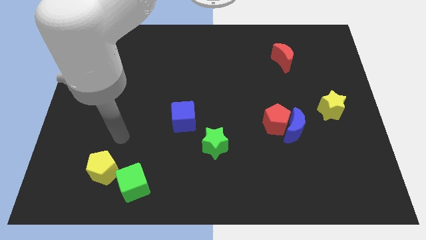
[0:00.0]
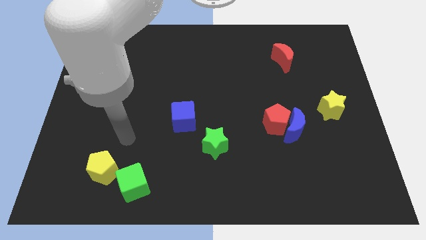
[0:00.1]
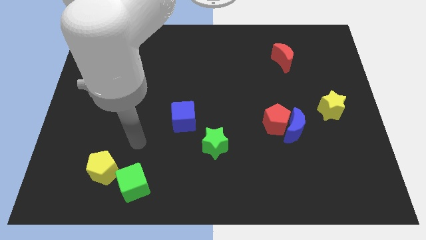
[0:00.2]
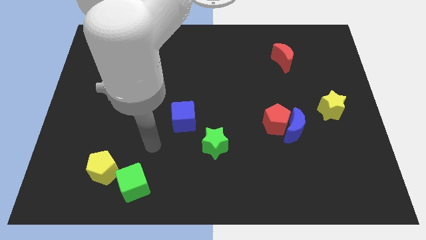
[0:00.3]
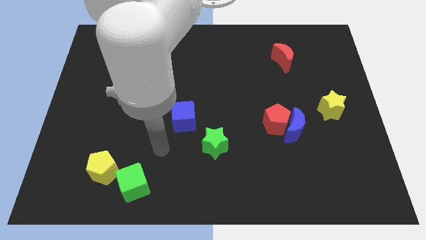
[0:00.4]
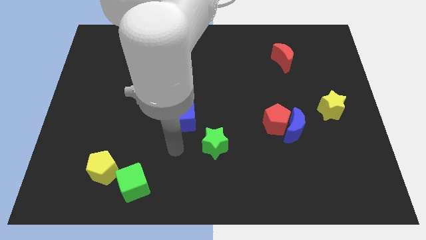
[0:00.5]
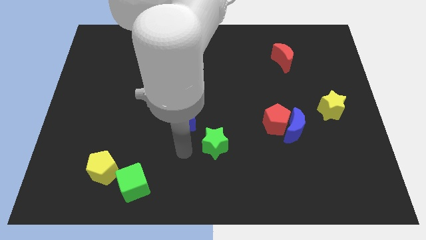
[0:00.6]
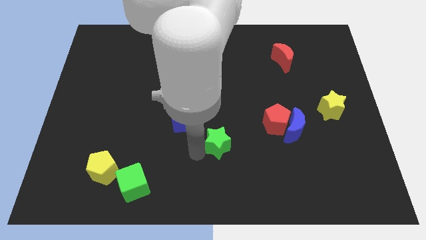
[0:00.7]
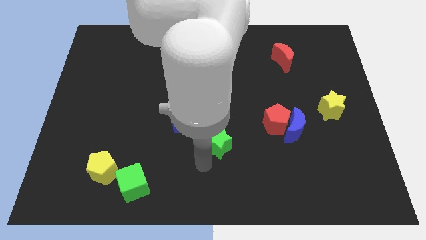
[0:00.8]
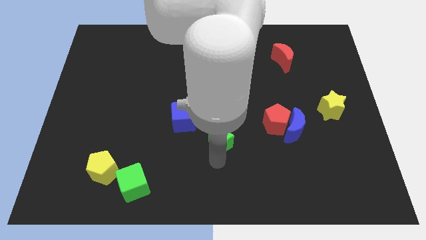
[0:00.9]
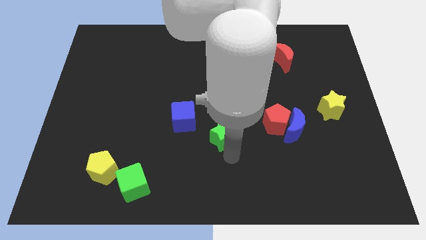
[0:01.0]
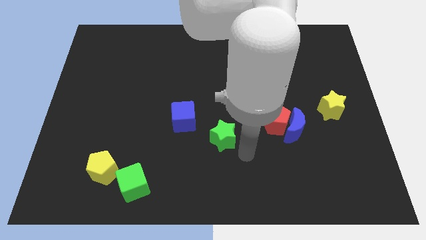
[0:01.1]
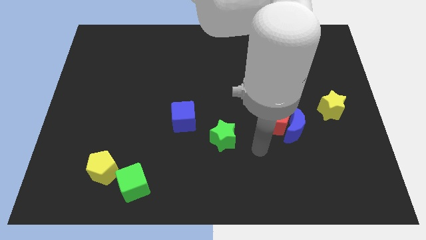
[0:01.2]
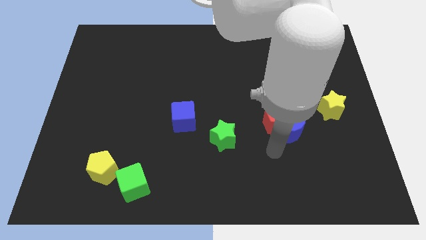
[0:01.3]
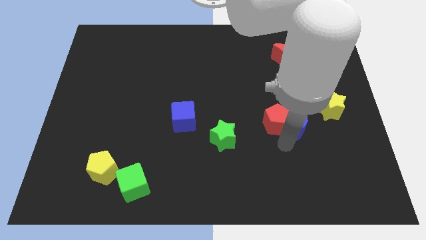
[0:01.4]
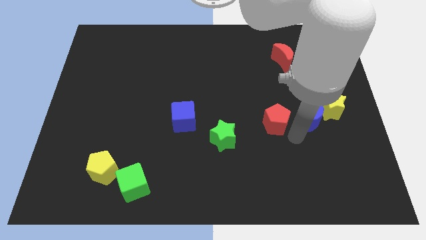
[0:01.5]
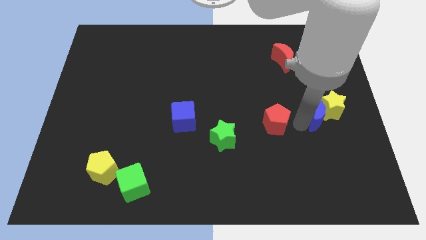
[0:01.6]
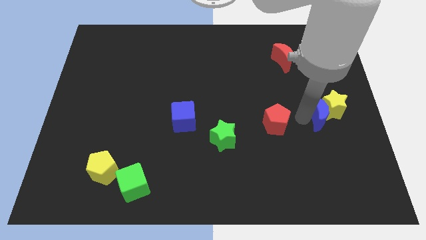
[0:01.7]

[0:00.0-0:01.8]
separate the red pentagon from the blue moon

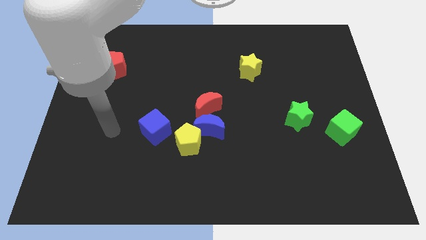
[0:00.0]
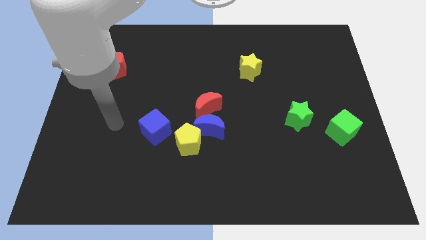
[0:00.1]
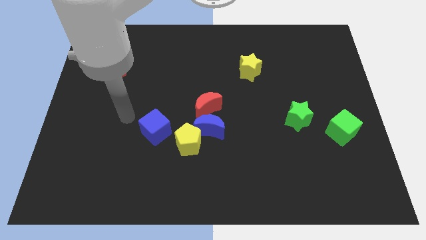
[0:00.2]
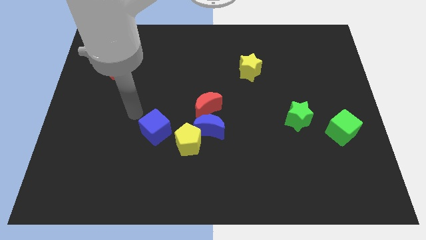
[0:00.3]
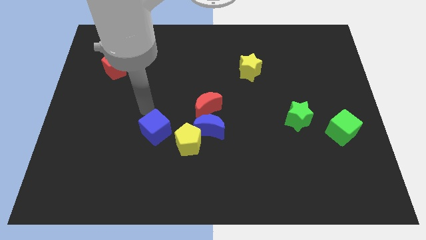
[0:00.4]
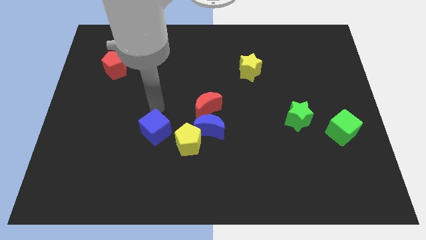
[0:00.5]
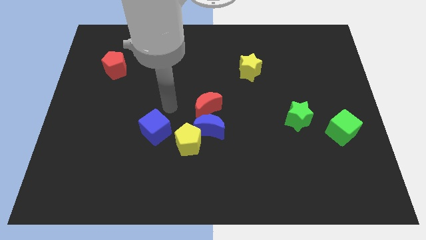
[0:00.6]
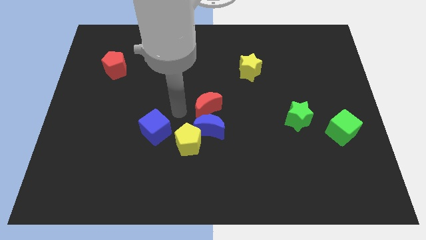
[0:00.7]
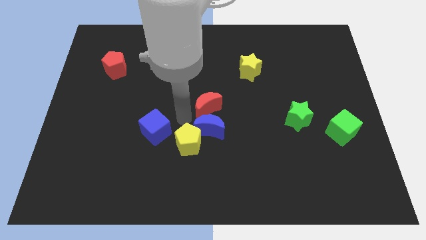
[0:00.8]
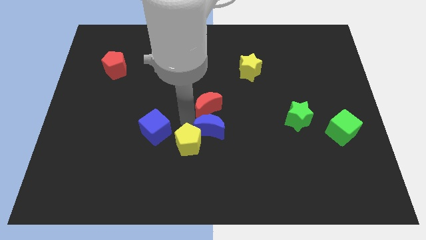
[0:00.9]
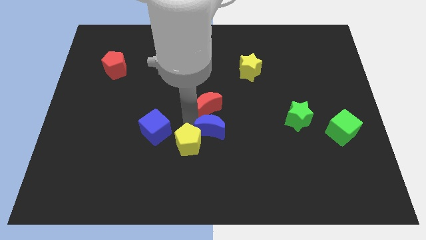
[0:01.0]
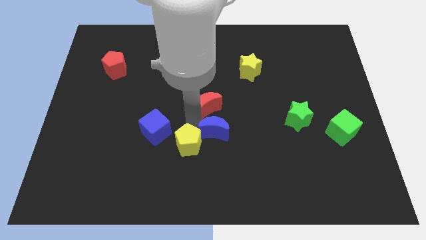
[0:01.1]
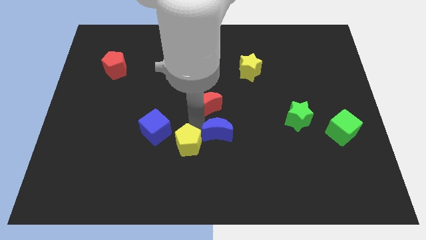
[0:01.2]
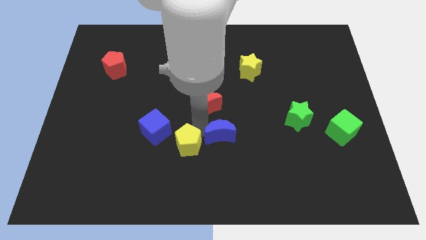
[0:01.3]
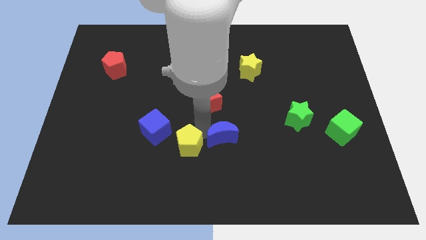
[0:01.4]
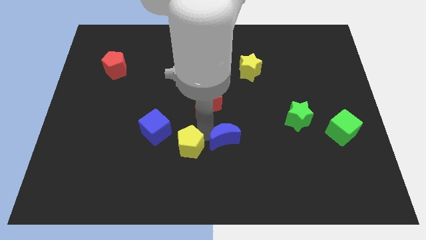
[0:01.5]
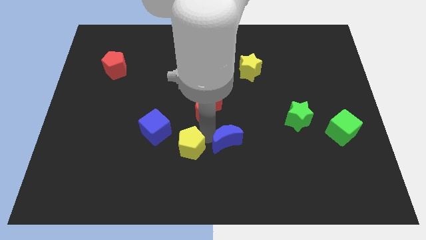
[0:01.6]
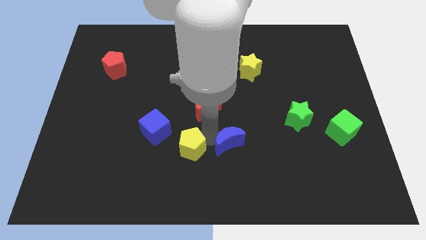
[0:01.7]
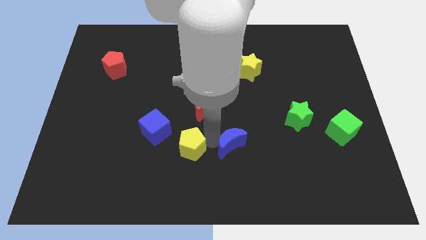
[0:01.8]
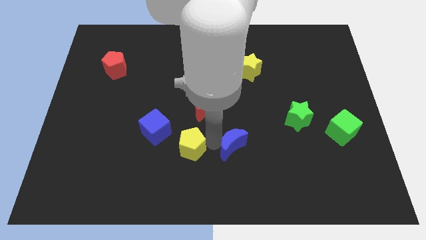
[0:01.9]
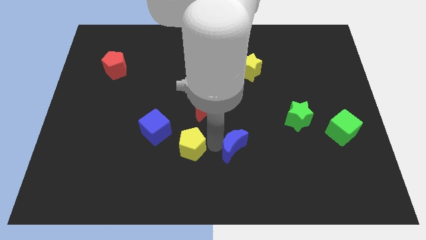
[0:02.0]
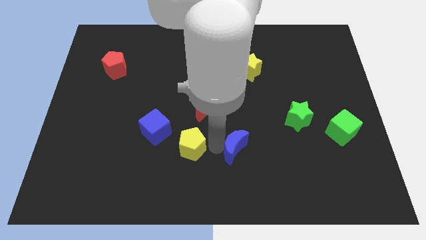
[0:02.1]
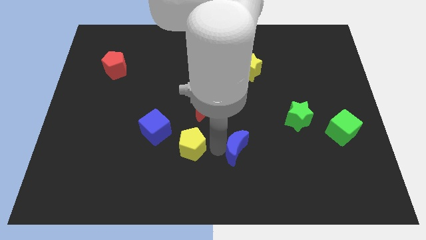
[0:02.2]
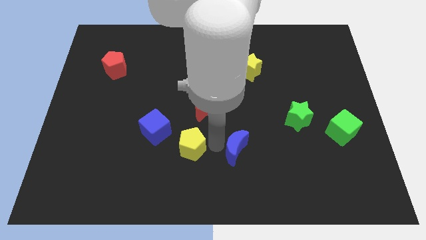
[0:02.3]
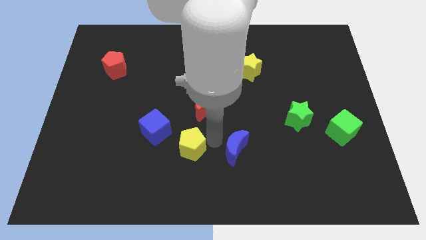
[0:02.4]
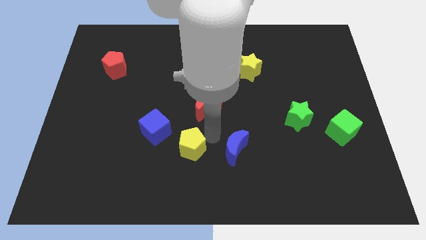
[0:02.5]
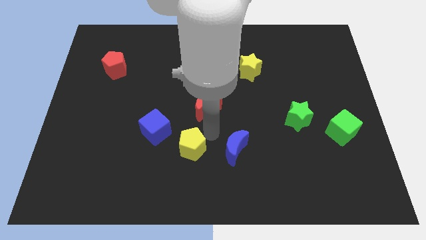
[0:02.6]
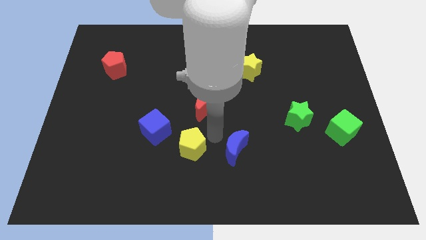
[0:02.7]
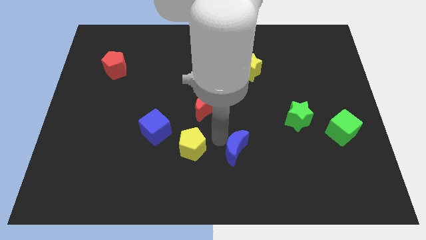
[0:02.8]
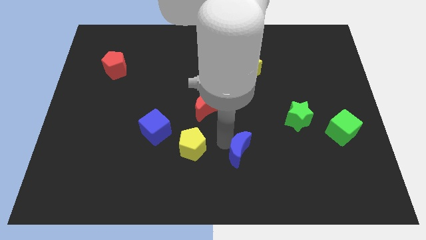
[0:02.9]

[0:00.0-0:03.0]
pull the blue moon apart from the yellow pentagon and red moon

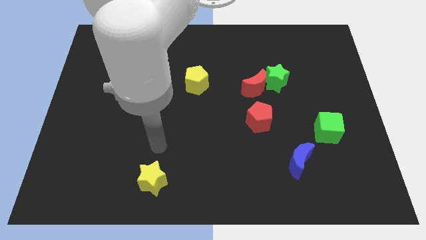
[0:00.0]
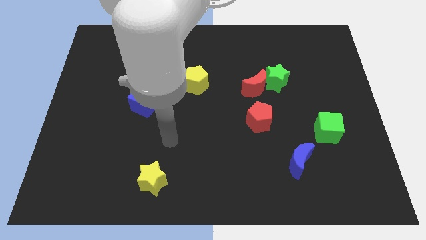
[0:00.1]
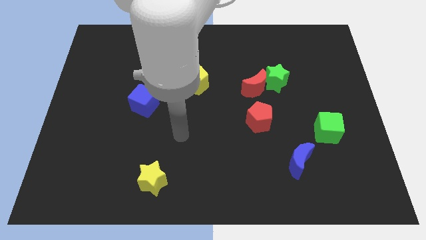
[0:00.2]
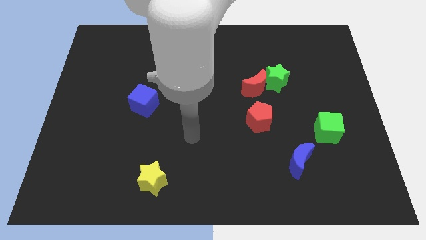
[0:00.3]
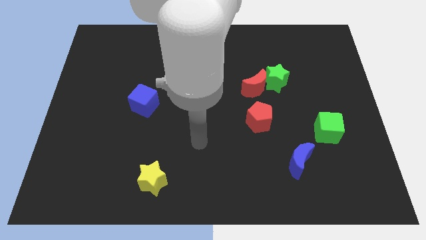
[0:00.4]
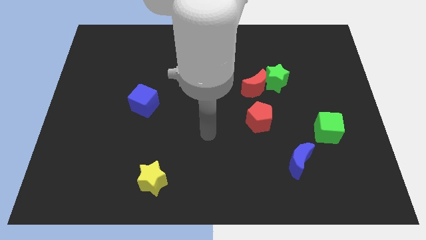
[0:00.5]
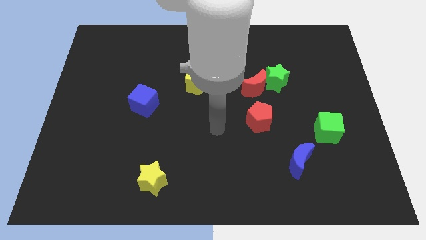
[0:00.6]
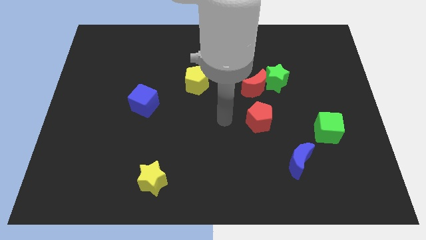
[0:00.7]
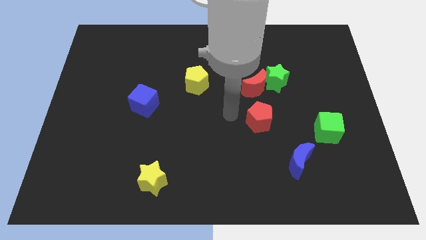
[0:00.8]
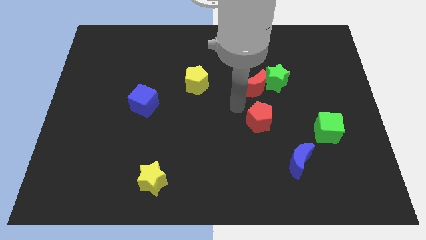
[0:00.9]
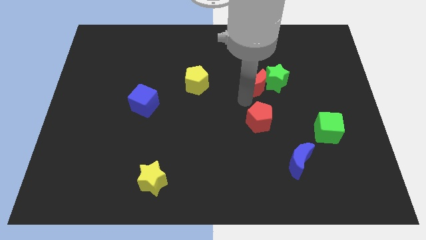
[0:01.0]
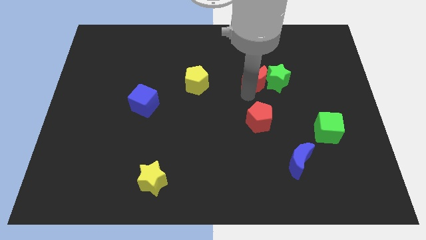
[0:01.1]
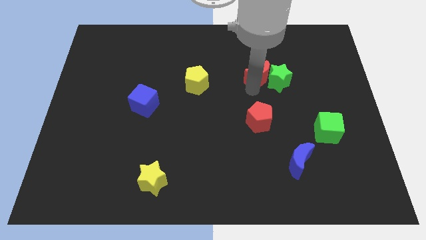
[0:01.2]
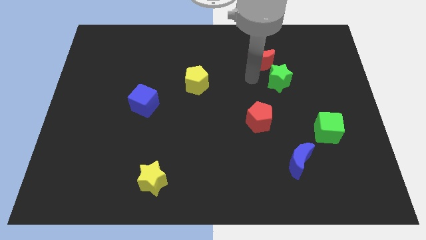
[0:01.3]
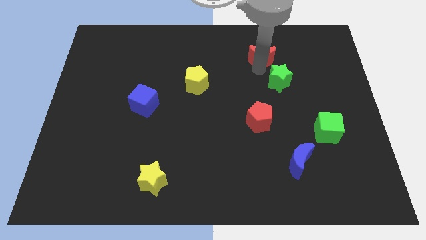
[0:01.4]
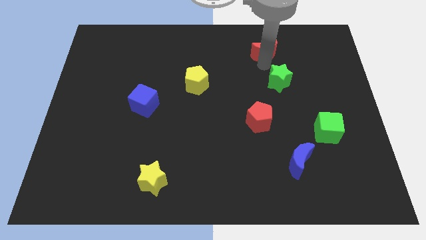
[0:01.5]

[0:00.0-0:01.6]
separate the green star from the red moon

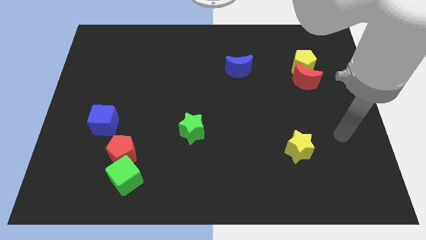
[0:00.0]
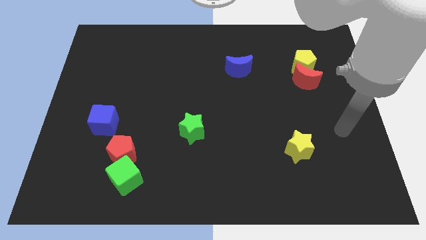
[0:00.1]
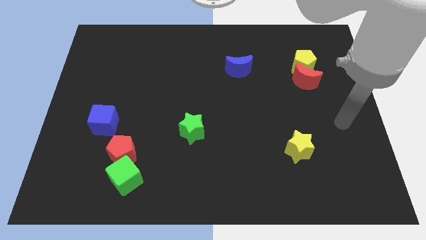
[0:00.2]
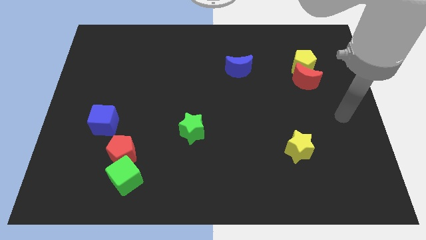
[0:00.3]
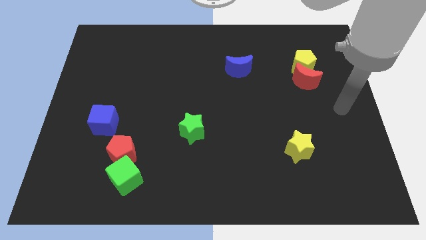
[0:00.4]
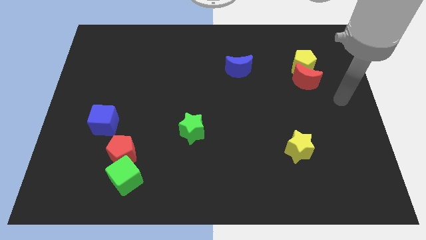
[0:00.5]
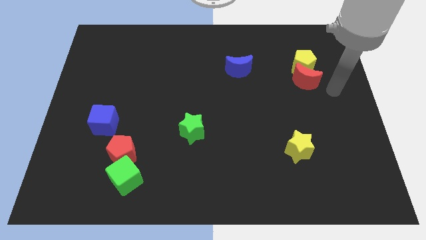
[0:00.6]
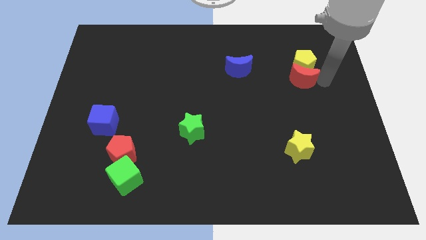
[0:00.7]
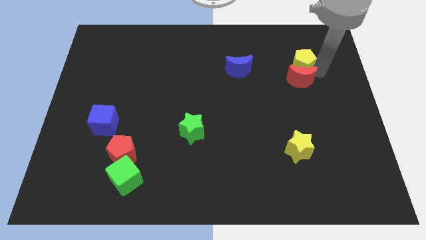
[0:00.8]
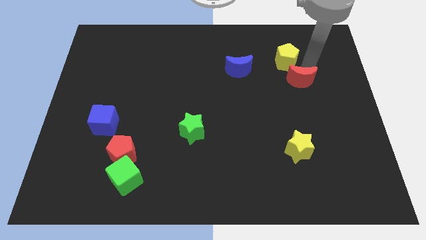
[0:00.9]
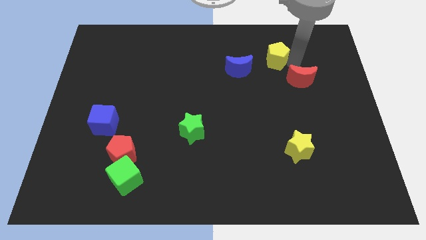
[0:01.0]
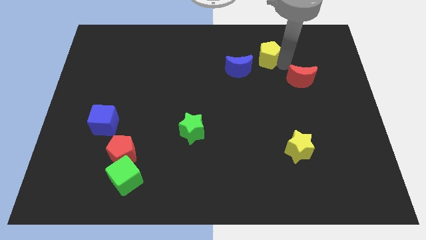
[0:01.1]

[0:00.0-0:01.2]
pull the red moon apart from the yellow pentagon

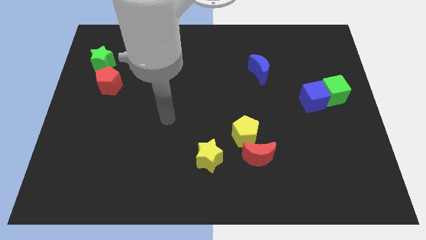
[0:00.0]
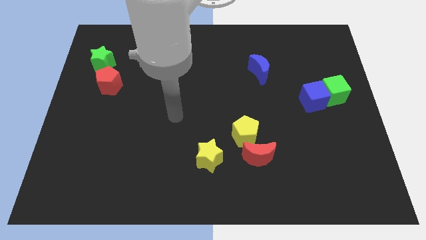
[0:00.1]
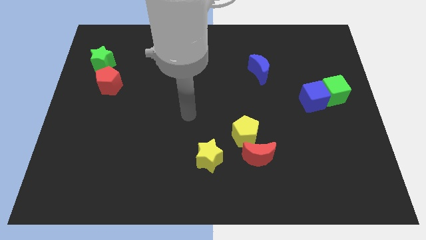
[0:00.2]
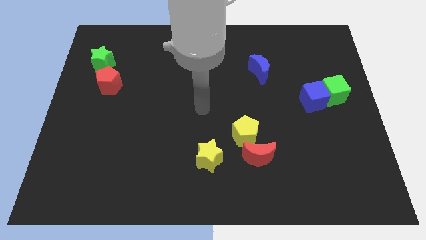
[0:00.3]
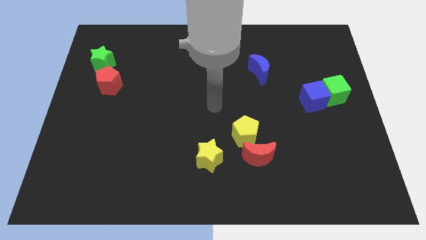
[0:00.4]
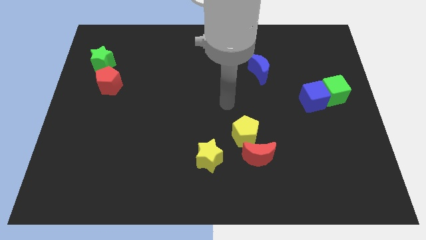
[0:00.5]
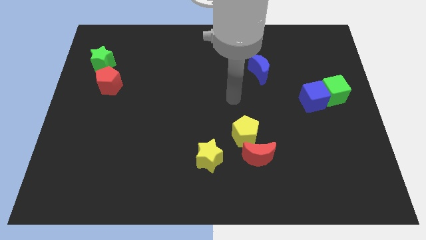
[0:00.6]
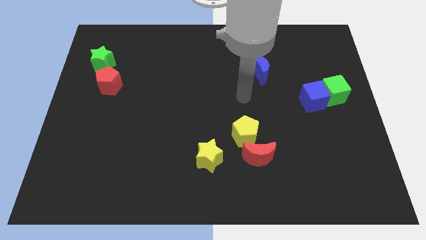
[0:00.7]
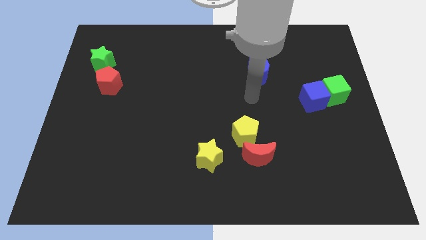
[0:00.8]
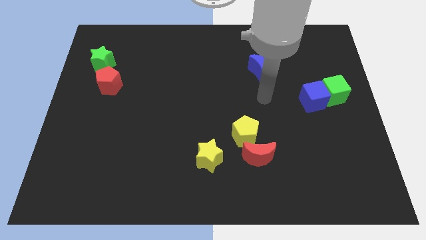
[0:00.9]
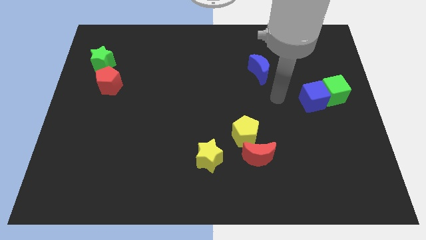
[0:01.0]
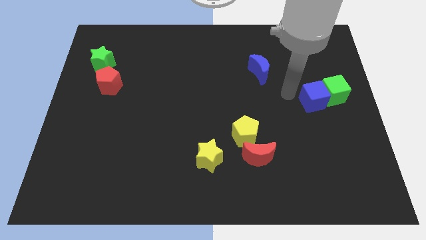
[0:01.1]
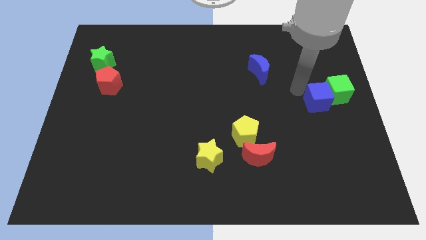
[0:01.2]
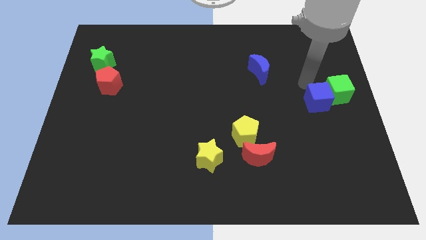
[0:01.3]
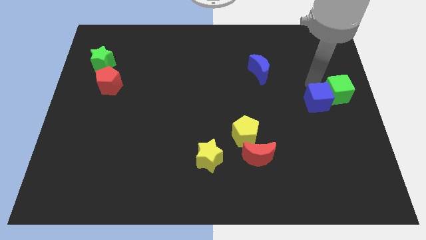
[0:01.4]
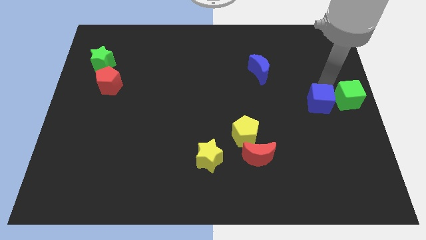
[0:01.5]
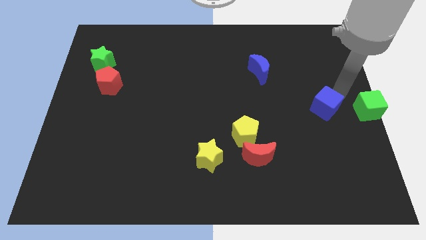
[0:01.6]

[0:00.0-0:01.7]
pull the blue cube apart from the green cube
